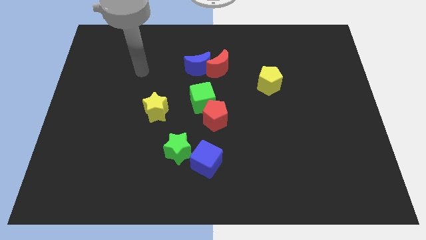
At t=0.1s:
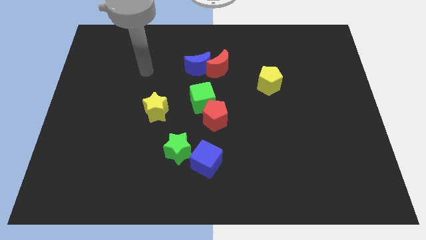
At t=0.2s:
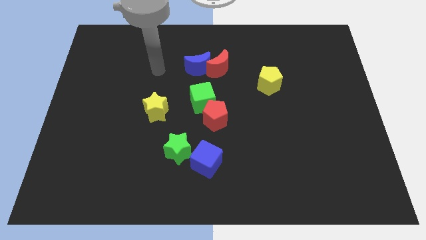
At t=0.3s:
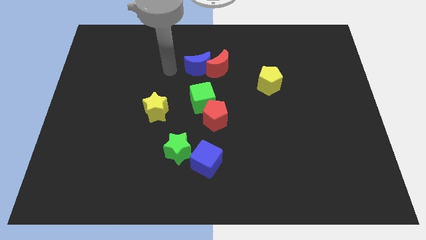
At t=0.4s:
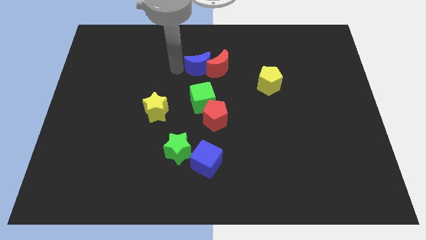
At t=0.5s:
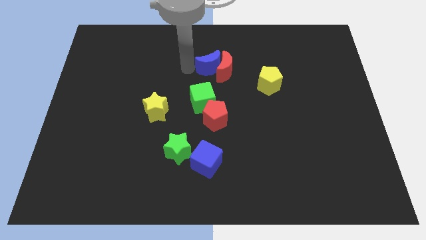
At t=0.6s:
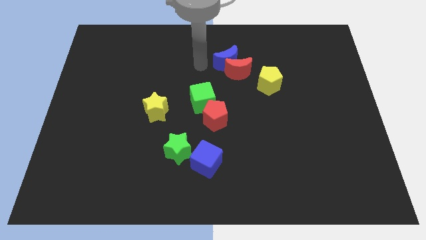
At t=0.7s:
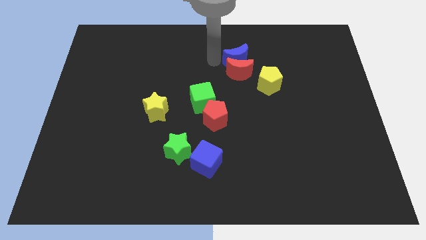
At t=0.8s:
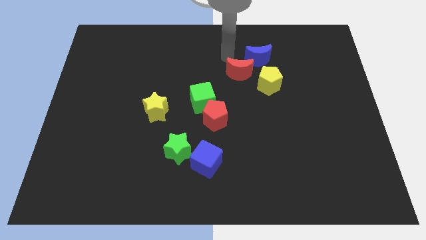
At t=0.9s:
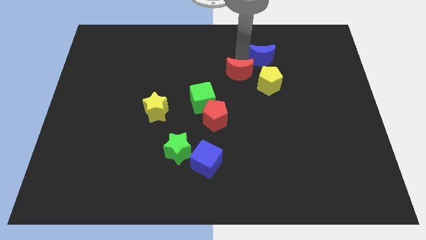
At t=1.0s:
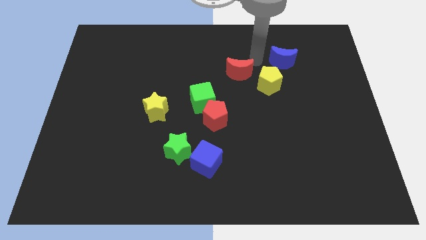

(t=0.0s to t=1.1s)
pull the red moon apart from the blue moon

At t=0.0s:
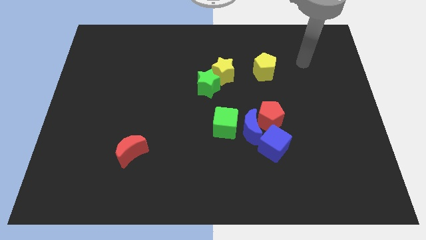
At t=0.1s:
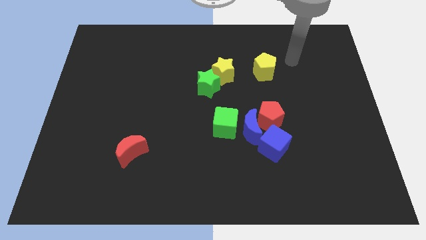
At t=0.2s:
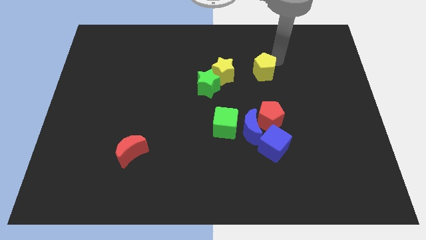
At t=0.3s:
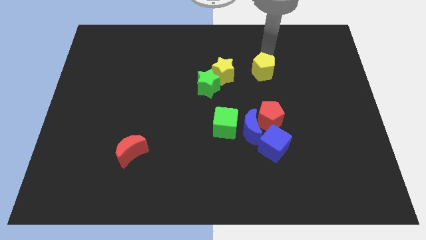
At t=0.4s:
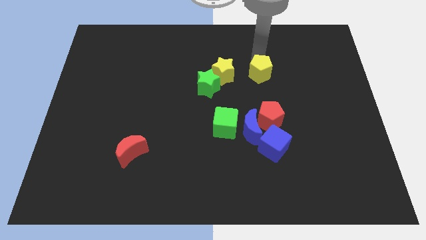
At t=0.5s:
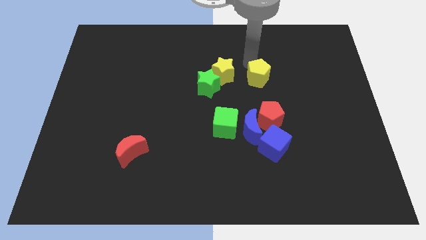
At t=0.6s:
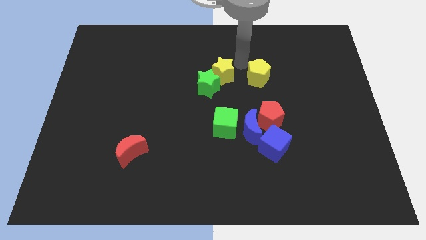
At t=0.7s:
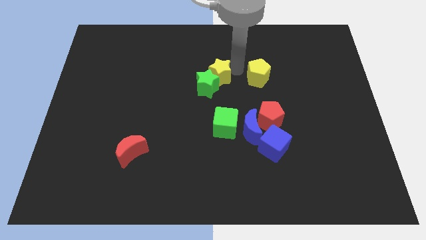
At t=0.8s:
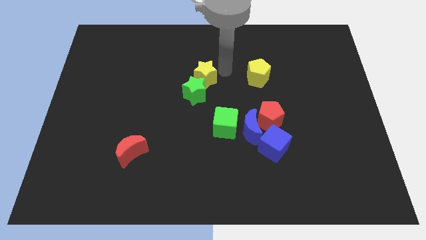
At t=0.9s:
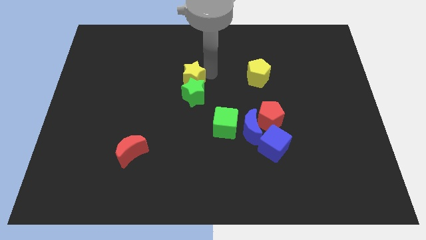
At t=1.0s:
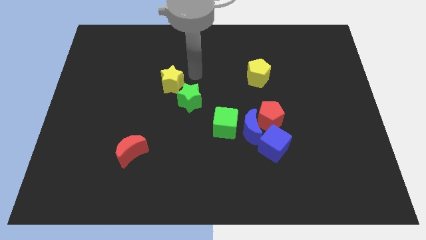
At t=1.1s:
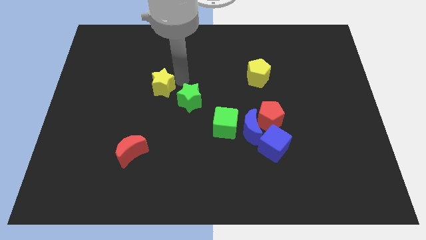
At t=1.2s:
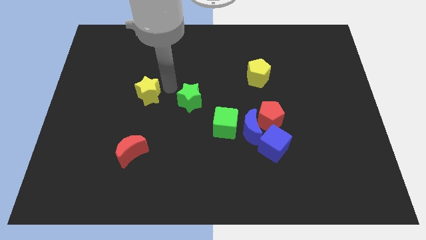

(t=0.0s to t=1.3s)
separate the green star from the yellow star

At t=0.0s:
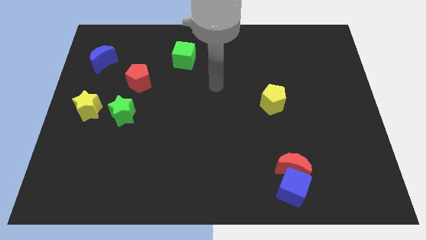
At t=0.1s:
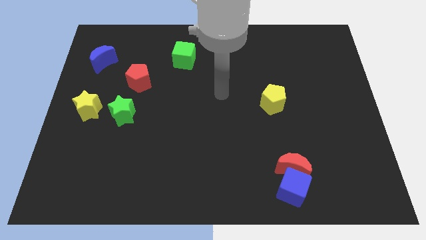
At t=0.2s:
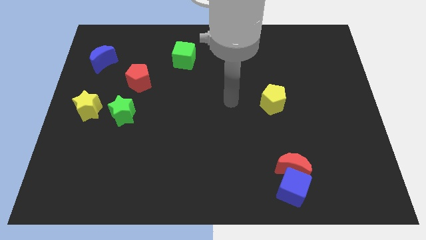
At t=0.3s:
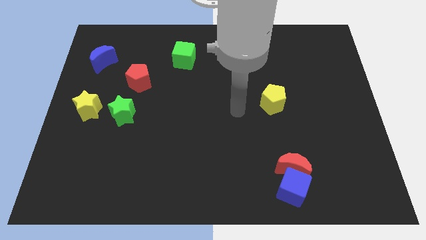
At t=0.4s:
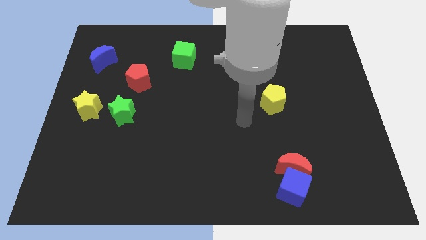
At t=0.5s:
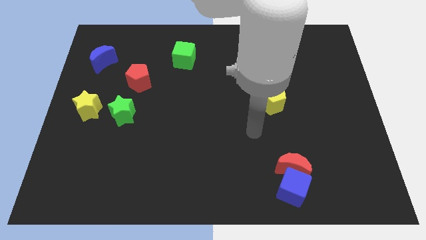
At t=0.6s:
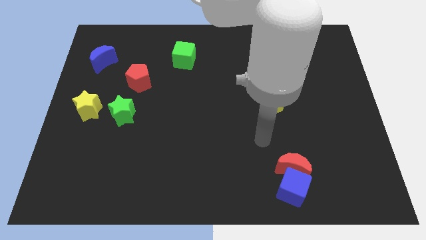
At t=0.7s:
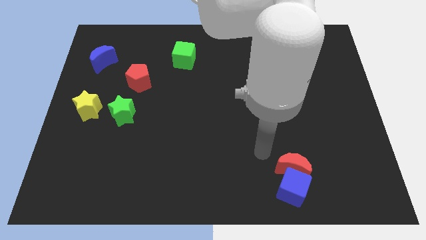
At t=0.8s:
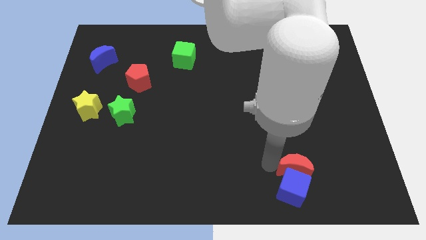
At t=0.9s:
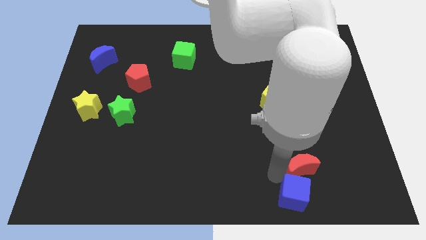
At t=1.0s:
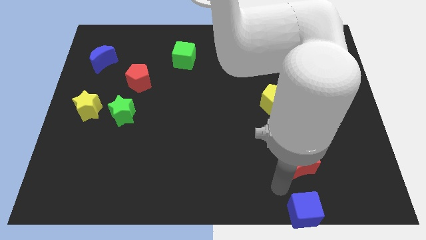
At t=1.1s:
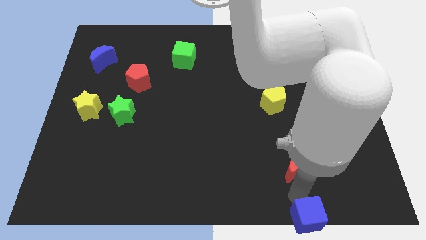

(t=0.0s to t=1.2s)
move the red moon away from the blue cube

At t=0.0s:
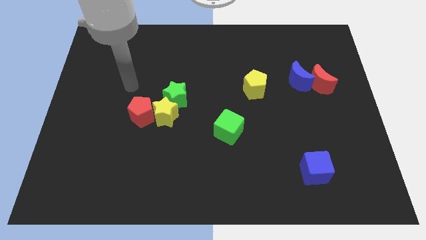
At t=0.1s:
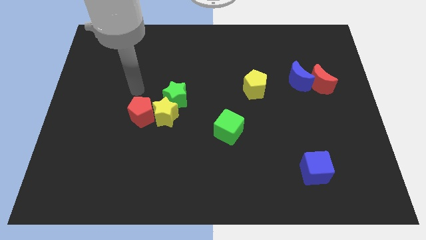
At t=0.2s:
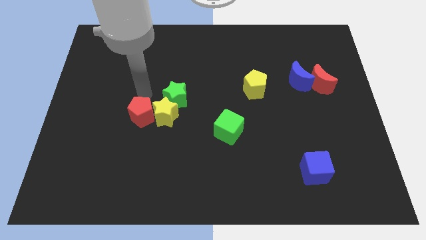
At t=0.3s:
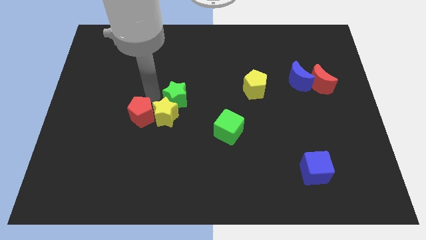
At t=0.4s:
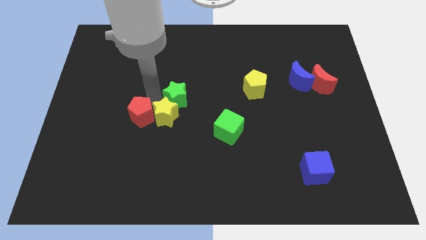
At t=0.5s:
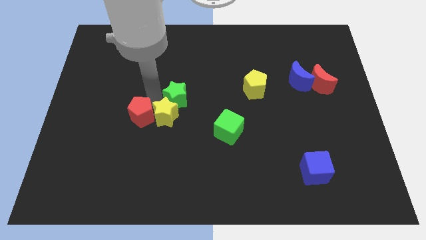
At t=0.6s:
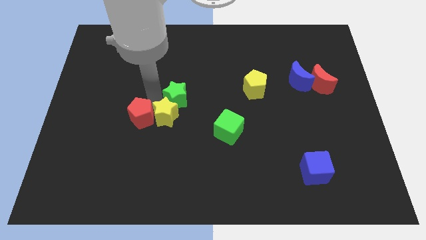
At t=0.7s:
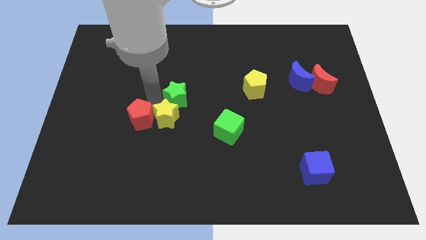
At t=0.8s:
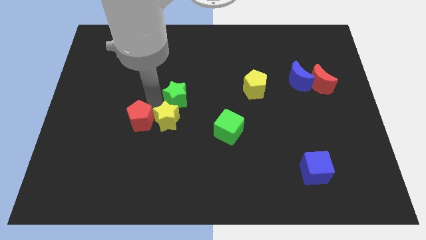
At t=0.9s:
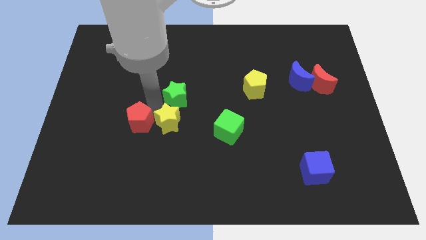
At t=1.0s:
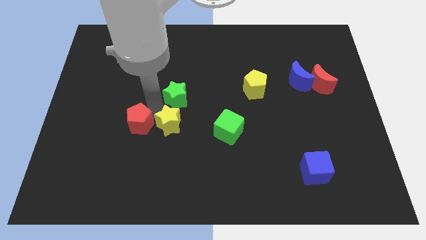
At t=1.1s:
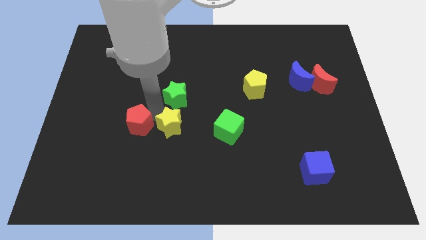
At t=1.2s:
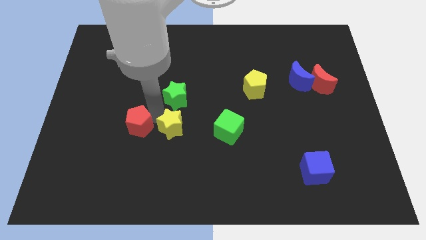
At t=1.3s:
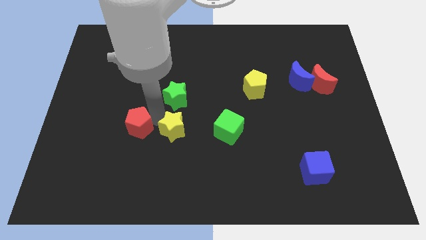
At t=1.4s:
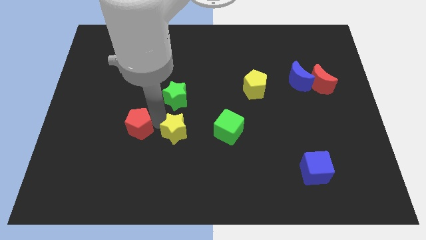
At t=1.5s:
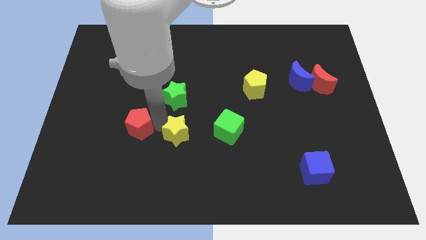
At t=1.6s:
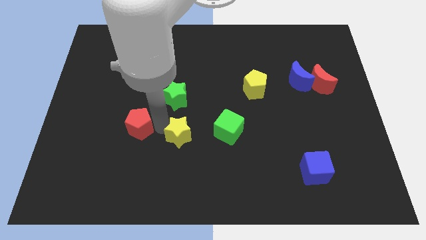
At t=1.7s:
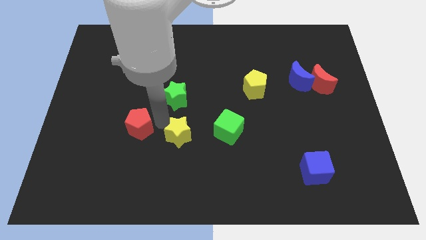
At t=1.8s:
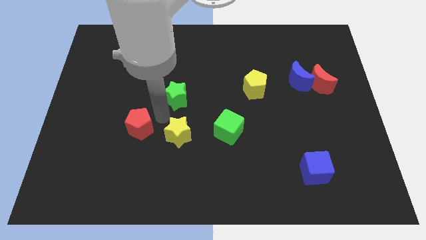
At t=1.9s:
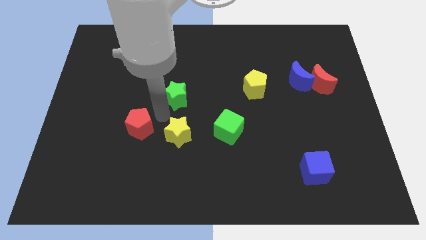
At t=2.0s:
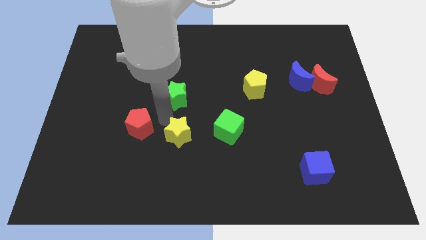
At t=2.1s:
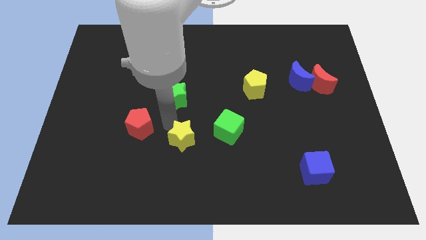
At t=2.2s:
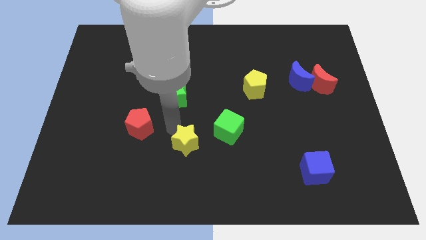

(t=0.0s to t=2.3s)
pull the yellow star apart from the red pentagon and green star

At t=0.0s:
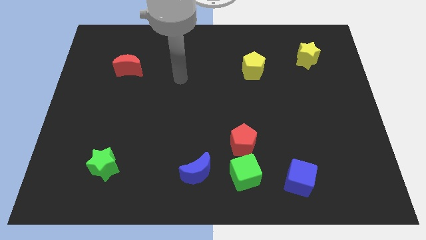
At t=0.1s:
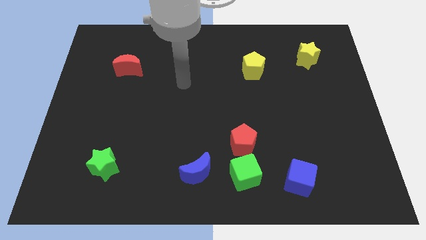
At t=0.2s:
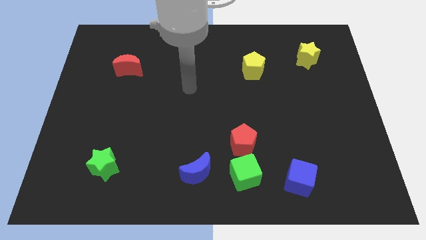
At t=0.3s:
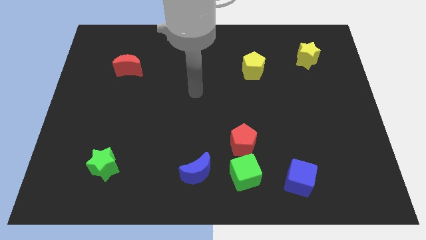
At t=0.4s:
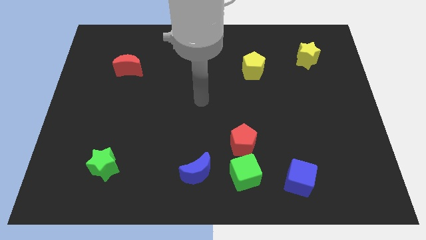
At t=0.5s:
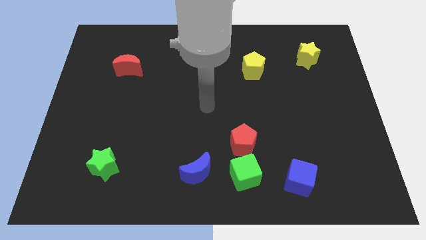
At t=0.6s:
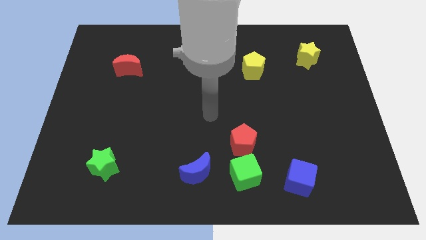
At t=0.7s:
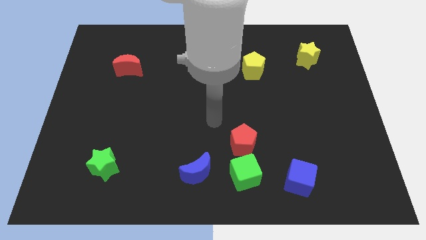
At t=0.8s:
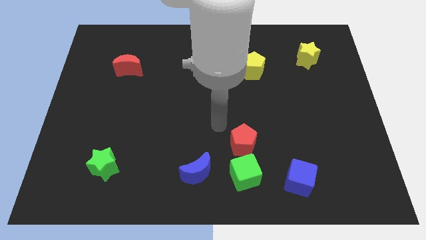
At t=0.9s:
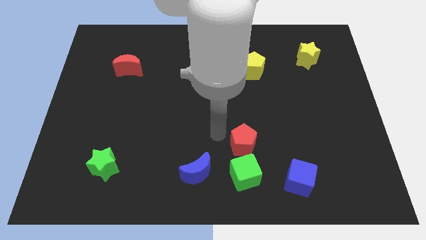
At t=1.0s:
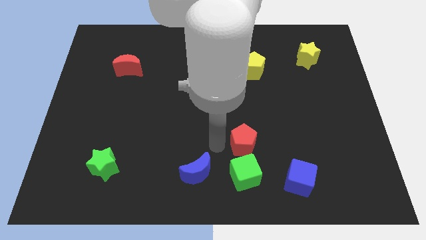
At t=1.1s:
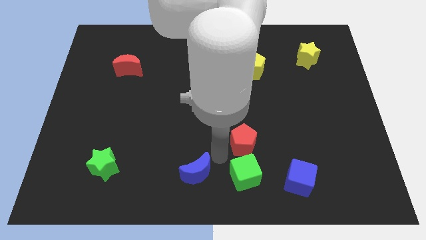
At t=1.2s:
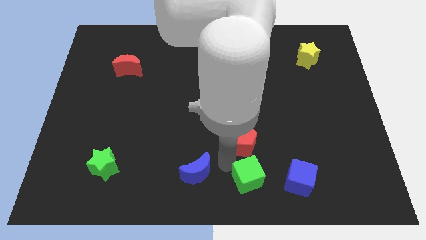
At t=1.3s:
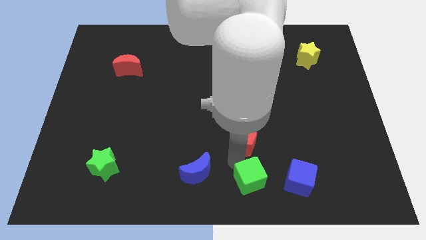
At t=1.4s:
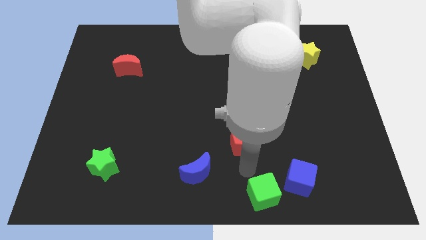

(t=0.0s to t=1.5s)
separate the red pentagon from the green cube

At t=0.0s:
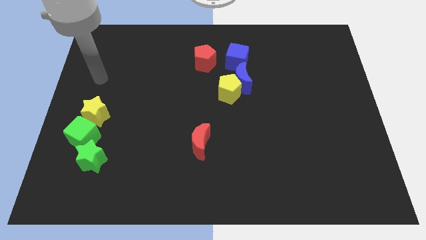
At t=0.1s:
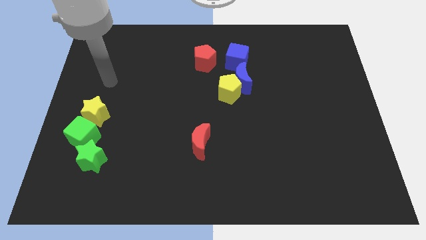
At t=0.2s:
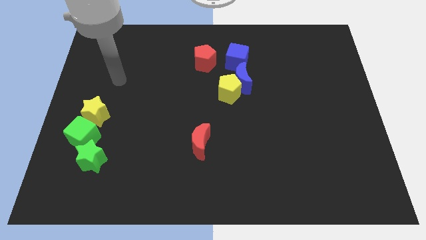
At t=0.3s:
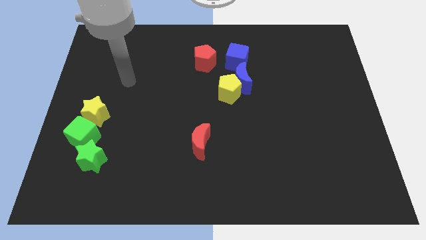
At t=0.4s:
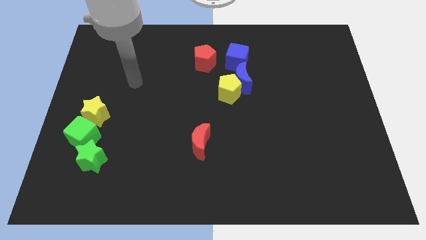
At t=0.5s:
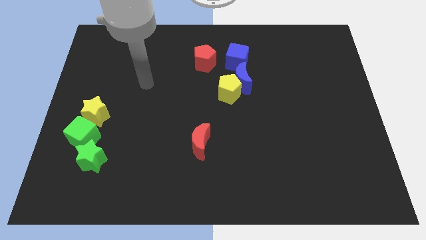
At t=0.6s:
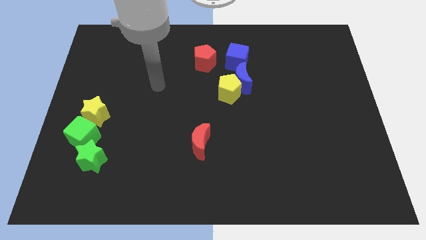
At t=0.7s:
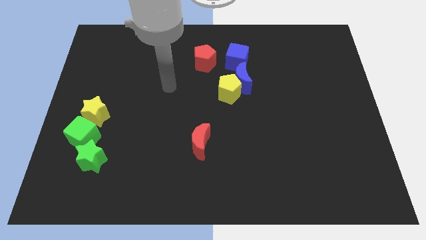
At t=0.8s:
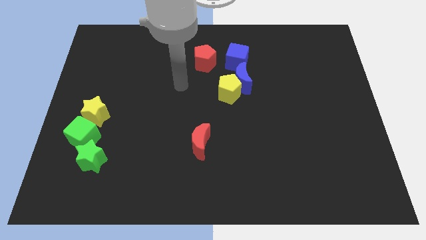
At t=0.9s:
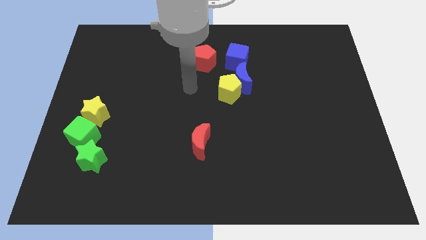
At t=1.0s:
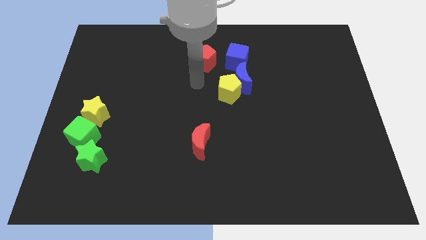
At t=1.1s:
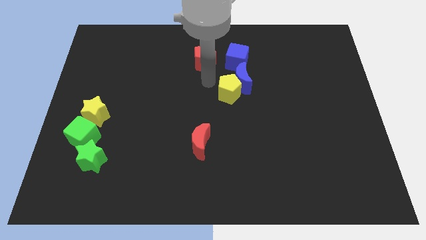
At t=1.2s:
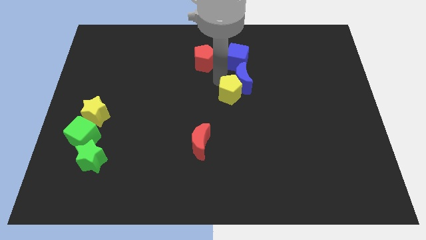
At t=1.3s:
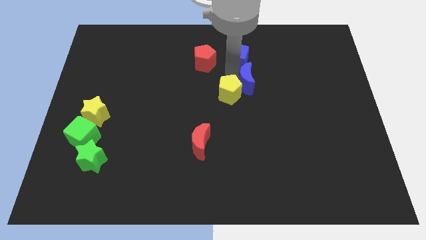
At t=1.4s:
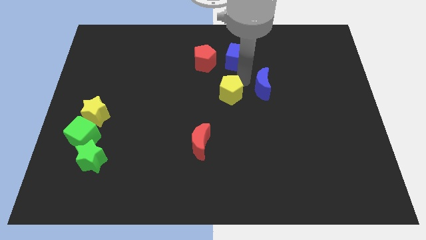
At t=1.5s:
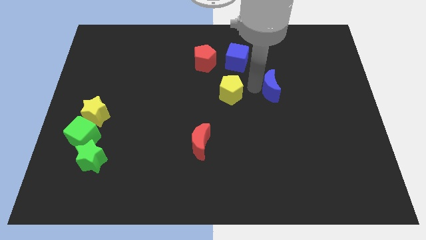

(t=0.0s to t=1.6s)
move the yellow pentagon away from the blue moon

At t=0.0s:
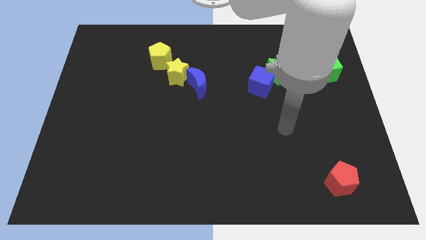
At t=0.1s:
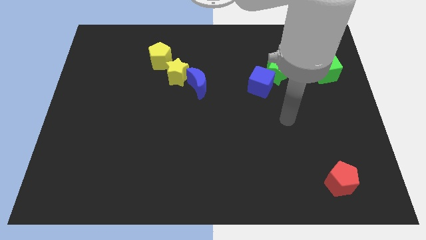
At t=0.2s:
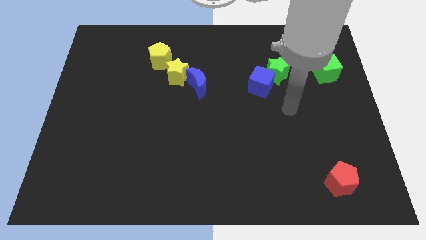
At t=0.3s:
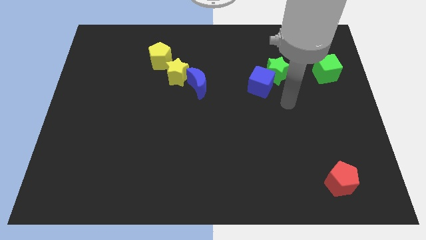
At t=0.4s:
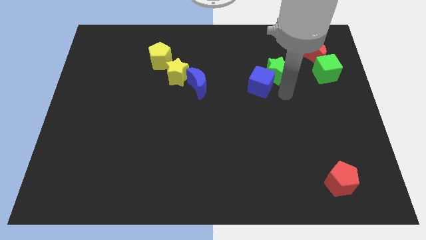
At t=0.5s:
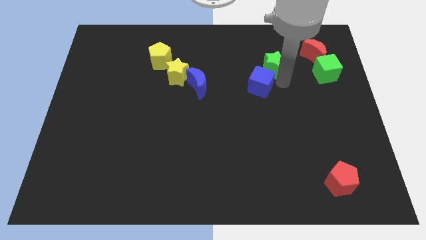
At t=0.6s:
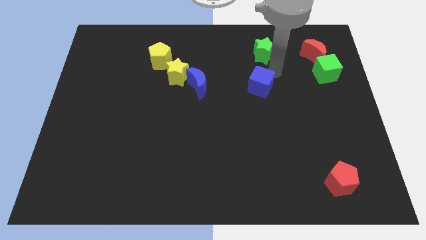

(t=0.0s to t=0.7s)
separate the blue cube from the green star
